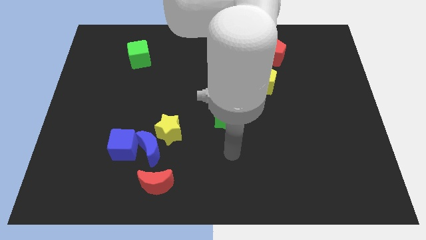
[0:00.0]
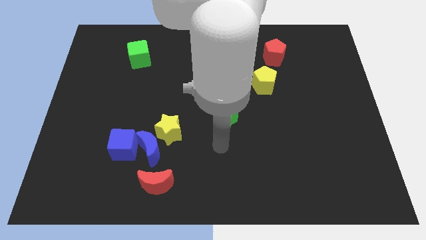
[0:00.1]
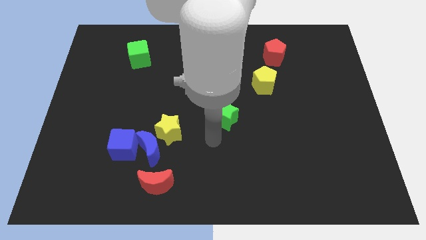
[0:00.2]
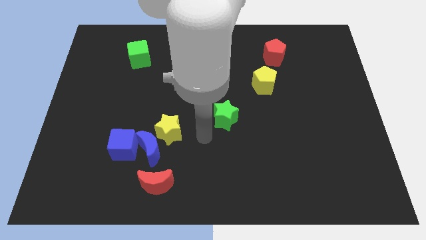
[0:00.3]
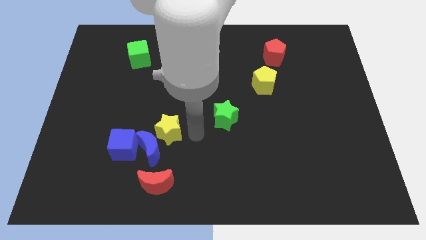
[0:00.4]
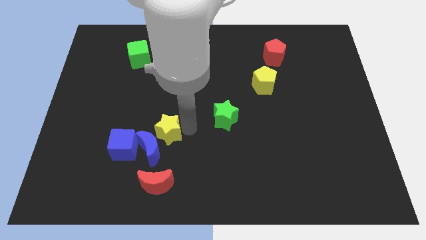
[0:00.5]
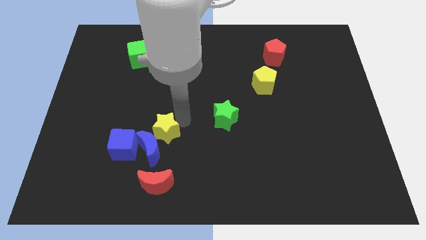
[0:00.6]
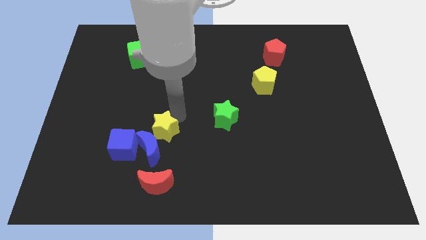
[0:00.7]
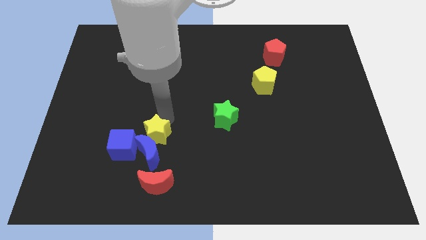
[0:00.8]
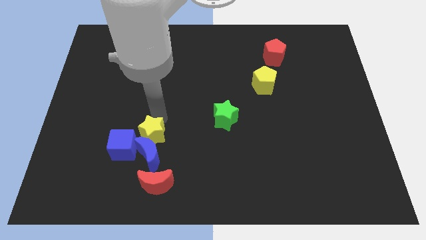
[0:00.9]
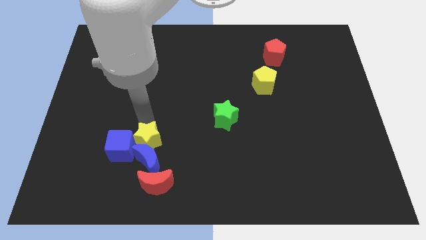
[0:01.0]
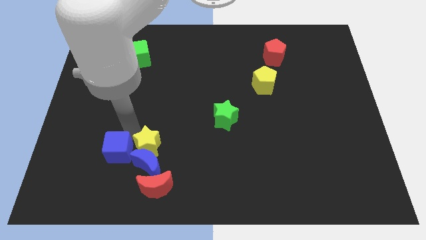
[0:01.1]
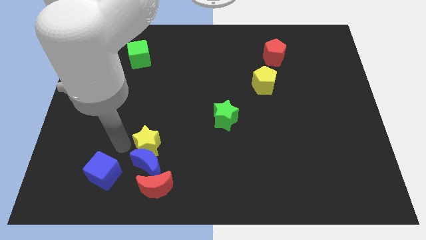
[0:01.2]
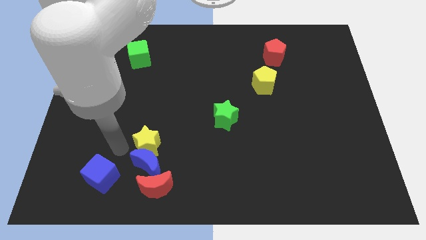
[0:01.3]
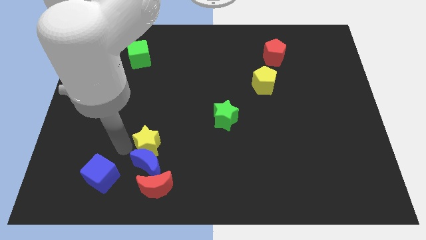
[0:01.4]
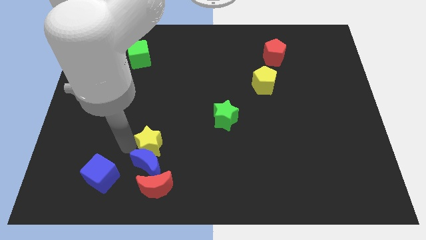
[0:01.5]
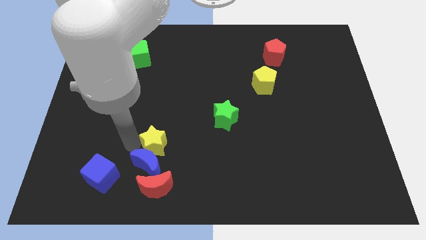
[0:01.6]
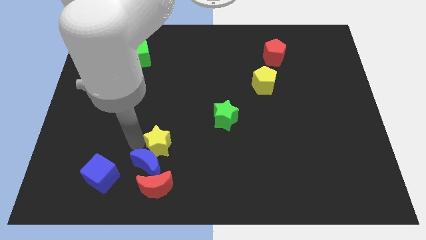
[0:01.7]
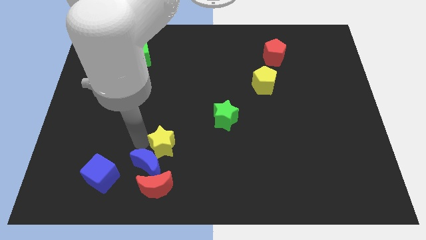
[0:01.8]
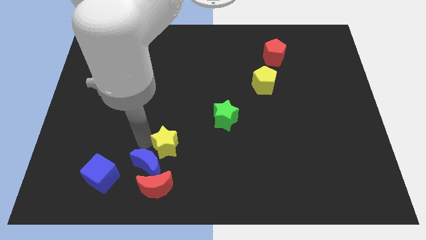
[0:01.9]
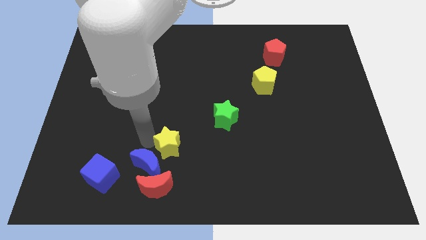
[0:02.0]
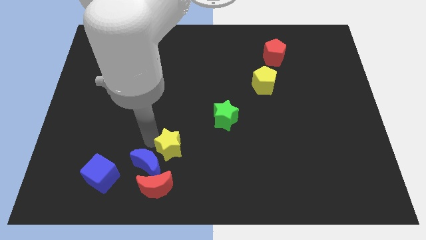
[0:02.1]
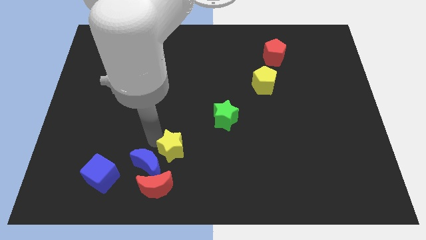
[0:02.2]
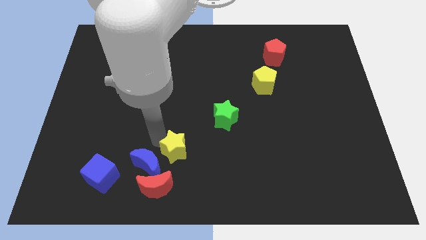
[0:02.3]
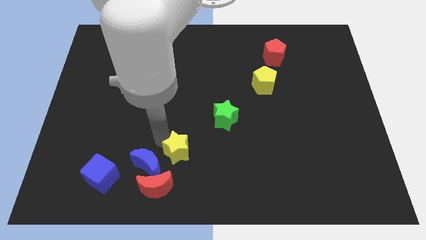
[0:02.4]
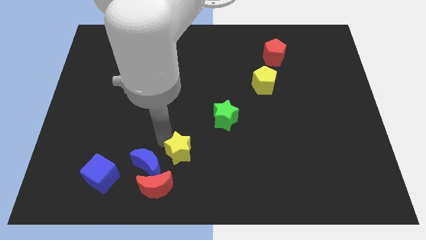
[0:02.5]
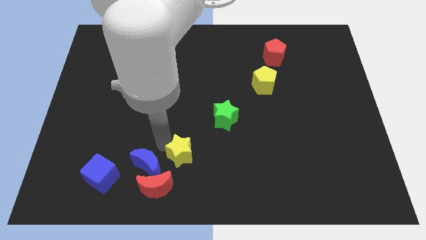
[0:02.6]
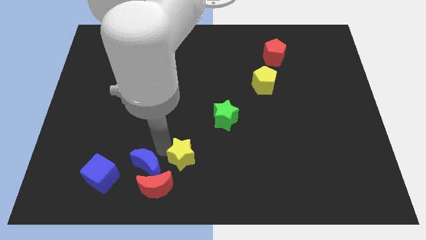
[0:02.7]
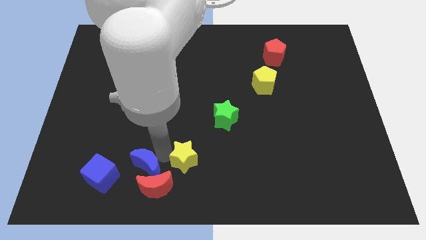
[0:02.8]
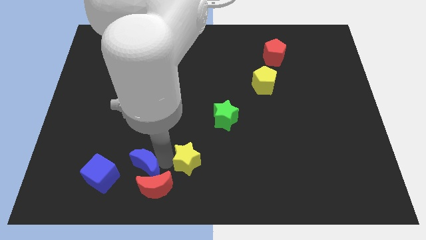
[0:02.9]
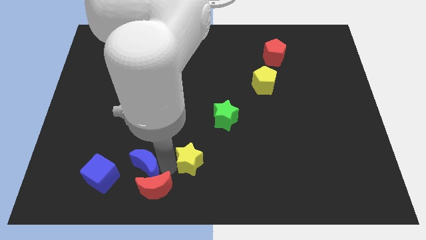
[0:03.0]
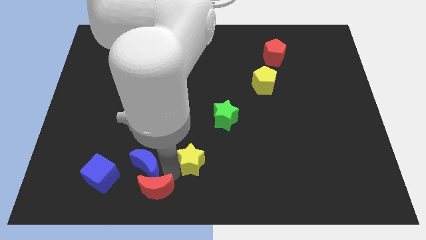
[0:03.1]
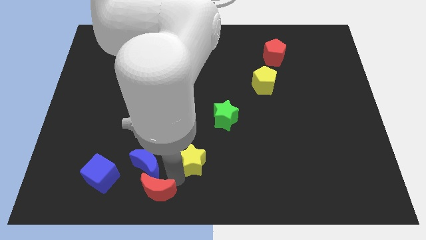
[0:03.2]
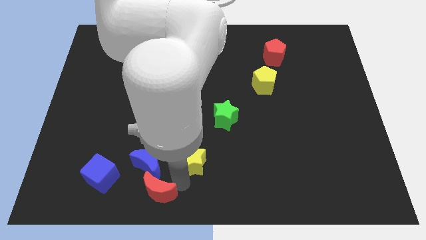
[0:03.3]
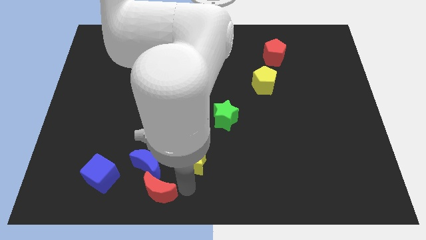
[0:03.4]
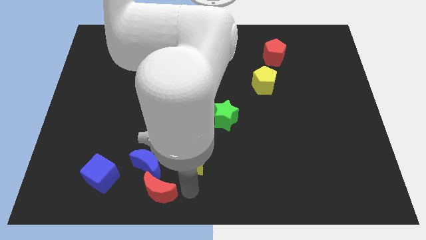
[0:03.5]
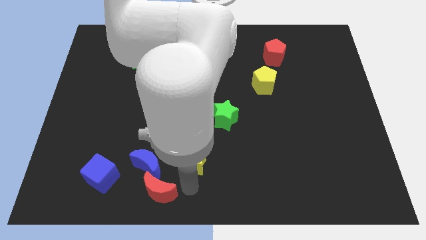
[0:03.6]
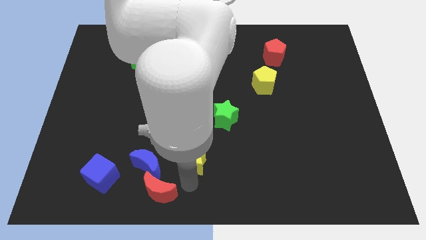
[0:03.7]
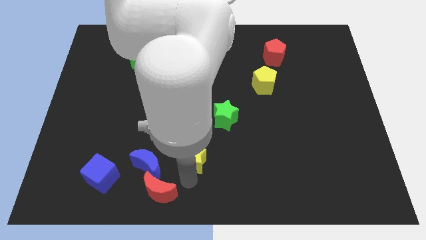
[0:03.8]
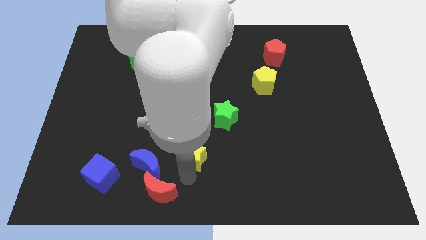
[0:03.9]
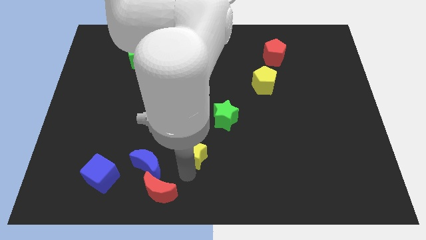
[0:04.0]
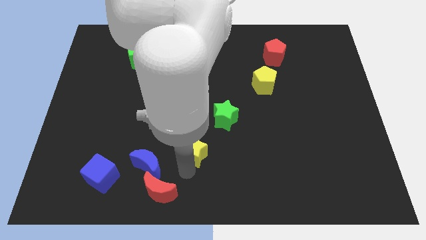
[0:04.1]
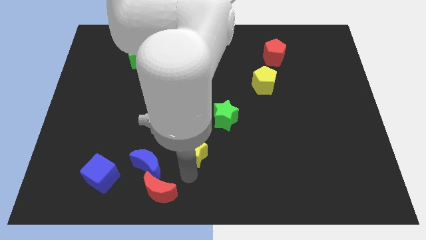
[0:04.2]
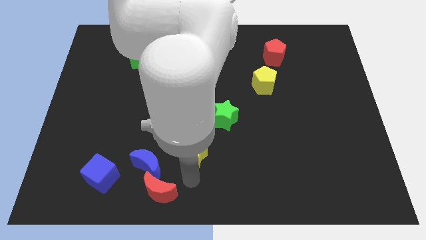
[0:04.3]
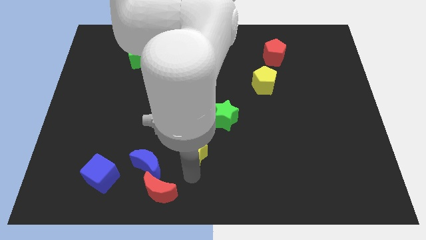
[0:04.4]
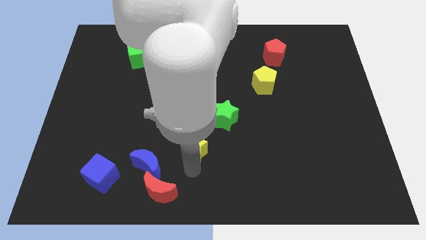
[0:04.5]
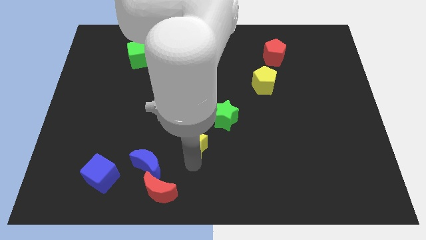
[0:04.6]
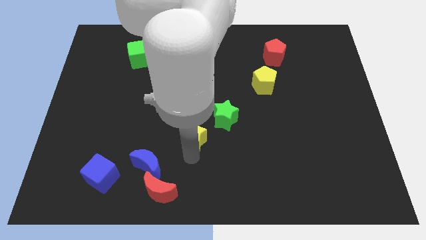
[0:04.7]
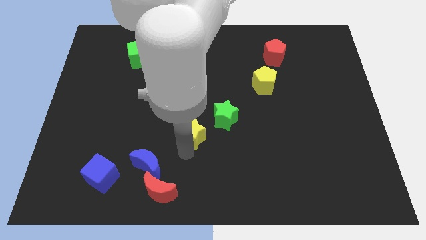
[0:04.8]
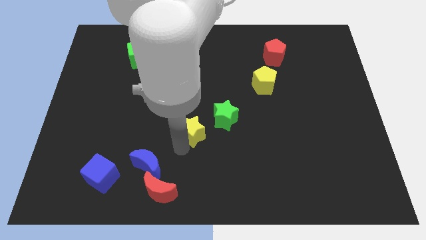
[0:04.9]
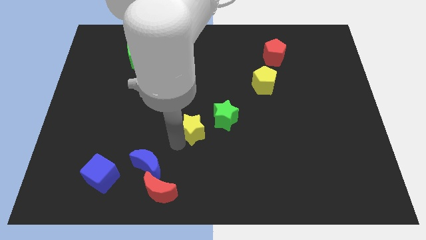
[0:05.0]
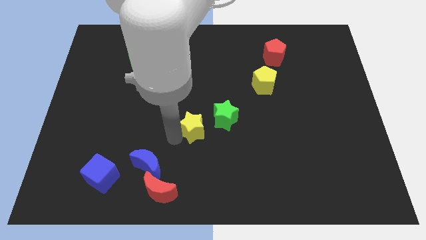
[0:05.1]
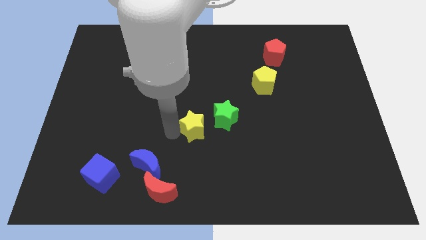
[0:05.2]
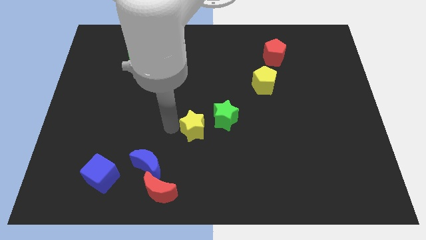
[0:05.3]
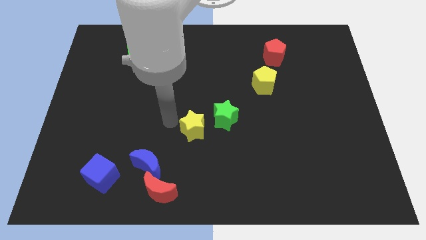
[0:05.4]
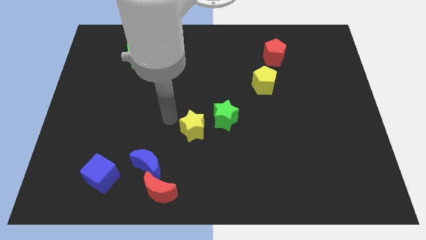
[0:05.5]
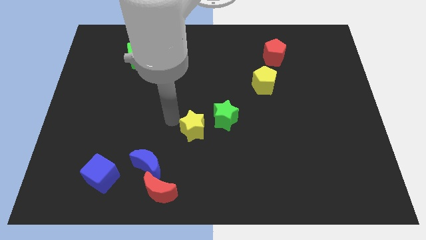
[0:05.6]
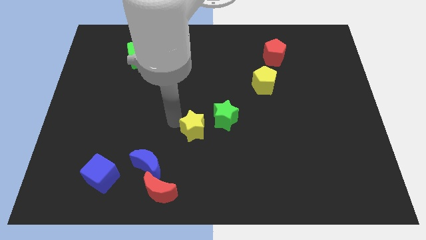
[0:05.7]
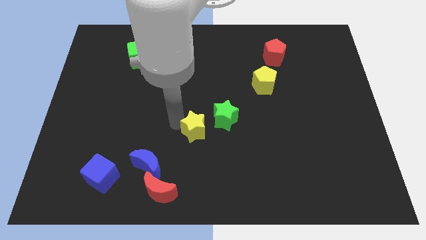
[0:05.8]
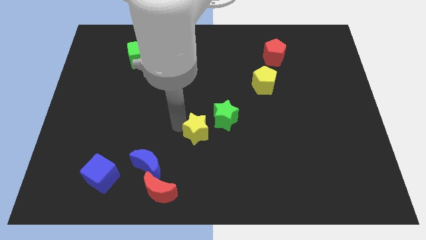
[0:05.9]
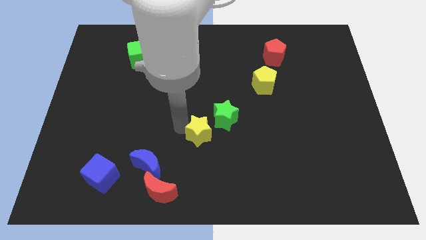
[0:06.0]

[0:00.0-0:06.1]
slightly move the yellow star to the right

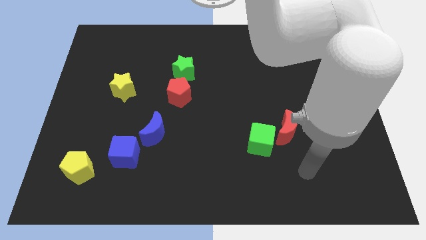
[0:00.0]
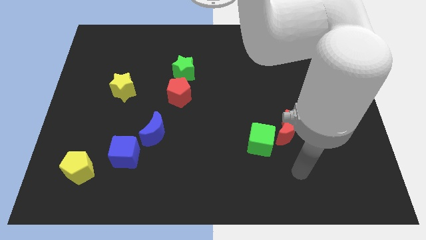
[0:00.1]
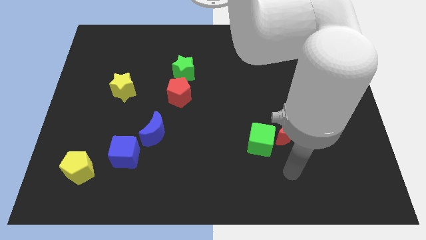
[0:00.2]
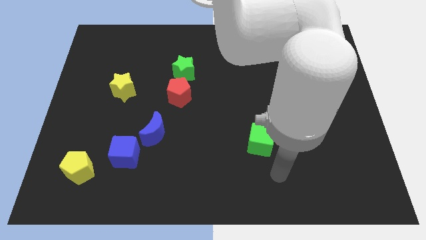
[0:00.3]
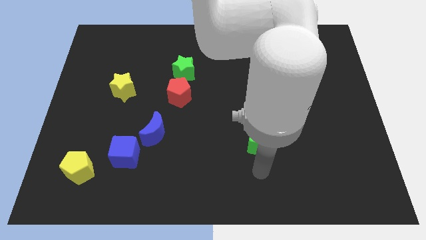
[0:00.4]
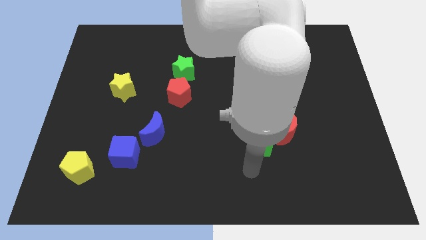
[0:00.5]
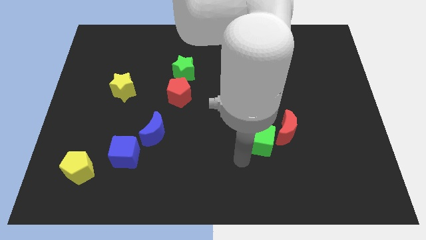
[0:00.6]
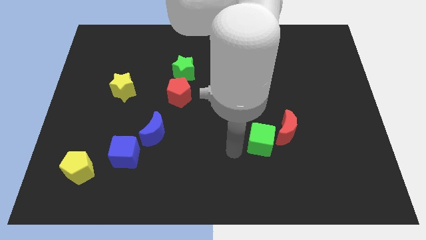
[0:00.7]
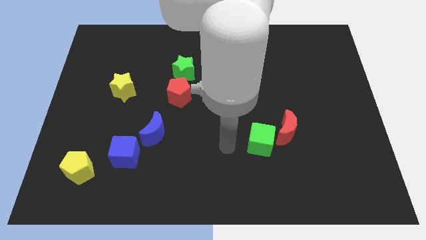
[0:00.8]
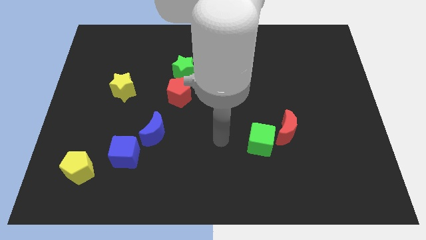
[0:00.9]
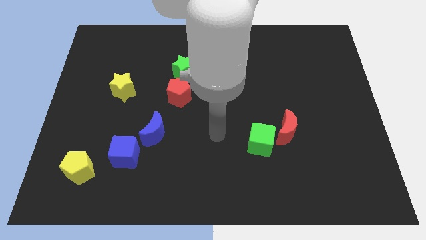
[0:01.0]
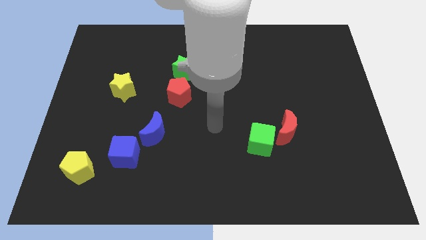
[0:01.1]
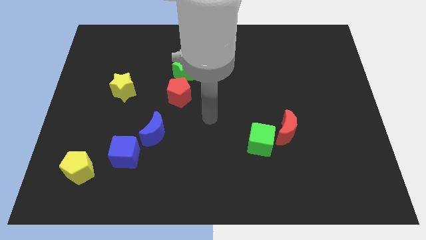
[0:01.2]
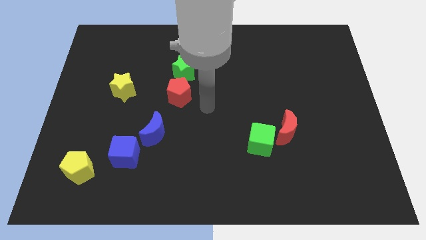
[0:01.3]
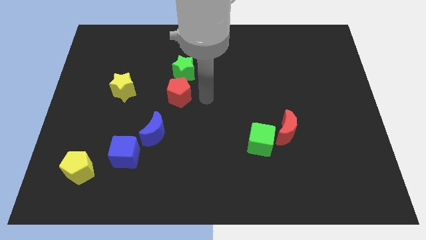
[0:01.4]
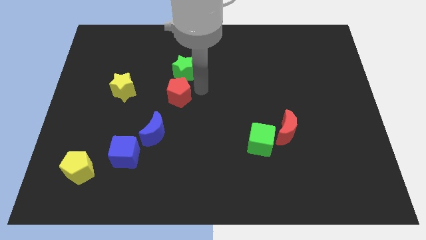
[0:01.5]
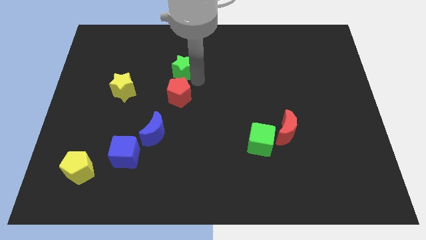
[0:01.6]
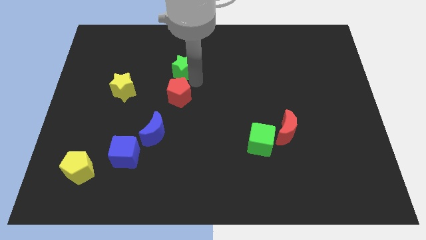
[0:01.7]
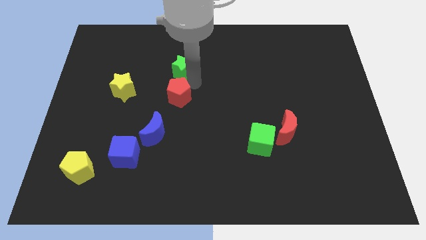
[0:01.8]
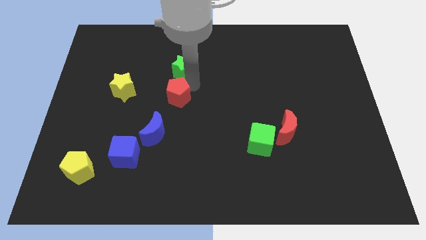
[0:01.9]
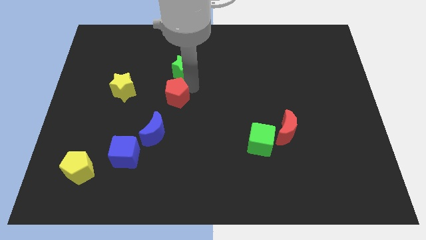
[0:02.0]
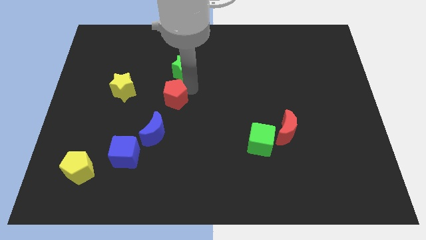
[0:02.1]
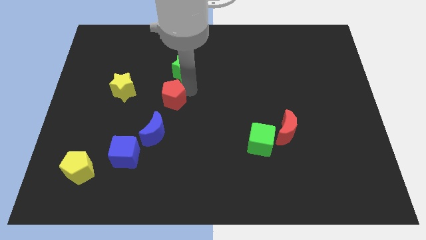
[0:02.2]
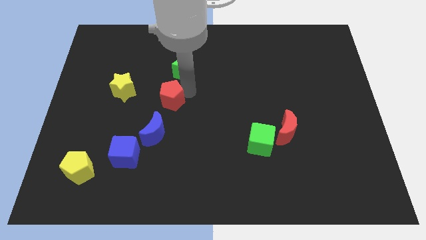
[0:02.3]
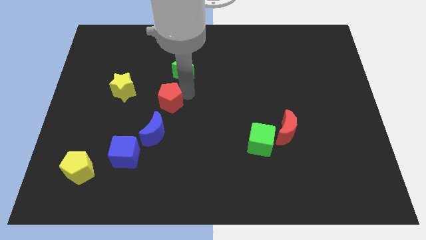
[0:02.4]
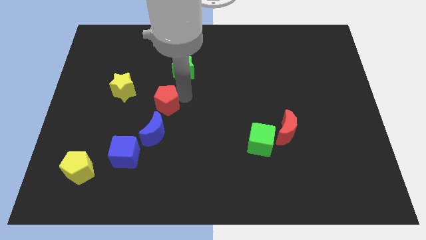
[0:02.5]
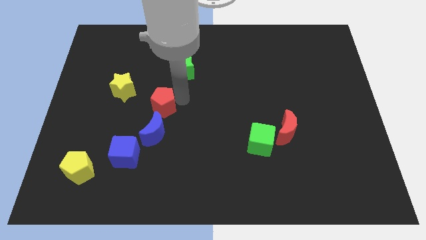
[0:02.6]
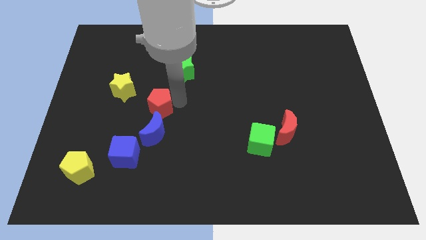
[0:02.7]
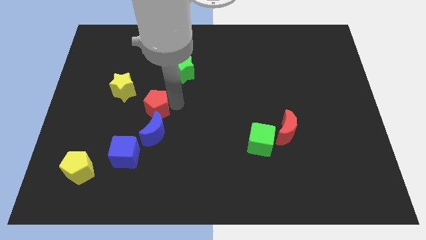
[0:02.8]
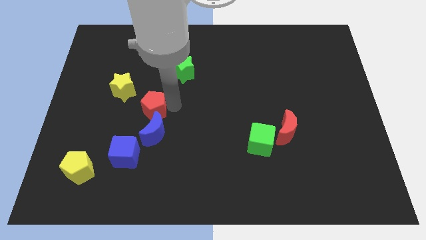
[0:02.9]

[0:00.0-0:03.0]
slide the red pentagon downwards and left diagonally a bit
